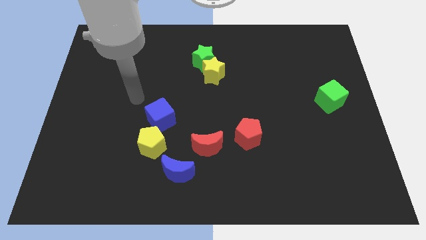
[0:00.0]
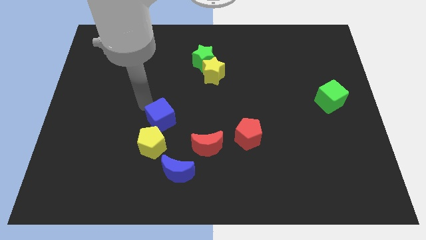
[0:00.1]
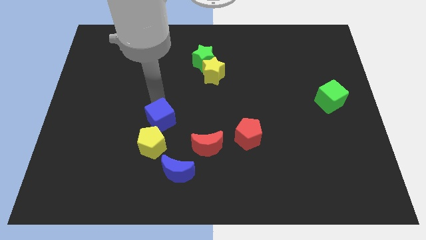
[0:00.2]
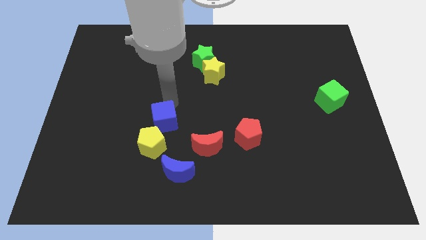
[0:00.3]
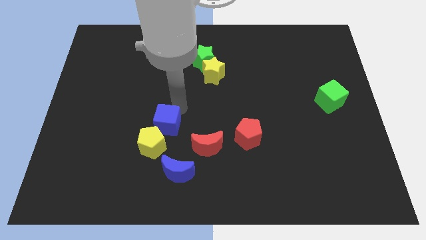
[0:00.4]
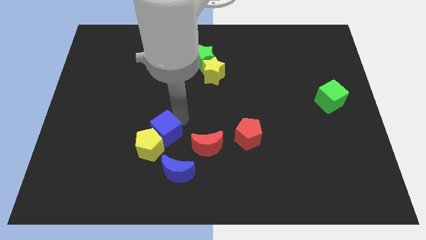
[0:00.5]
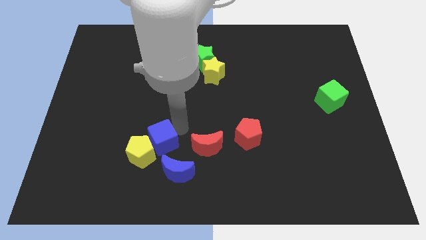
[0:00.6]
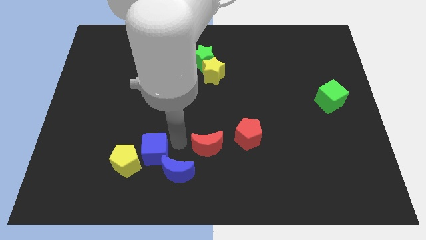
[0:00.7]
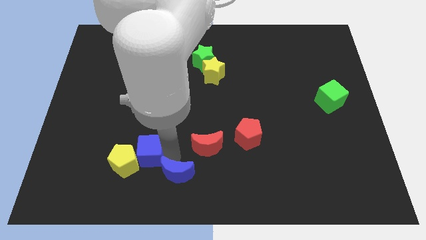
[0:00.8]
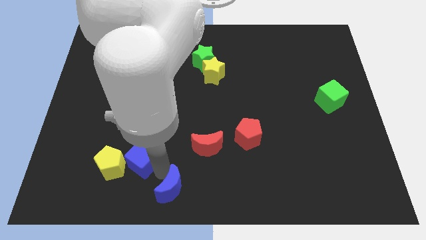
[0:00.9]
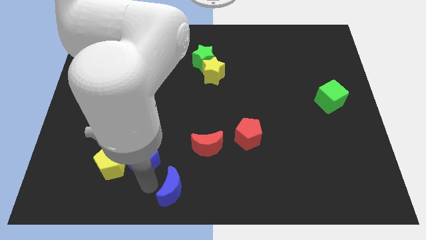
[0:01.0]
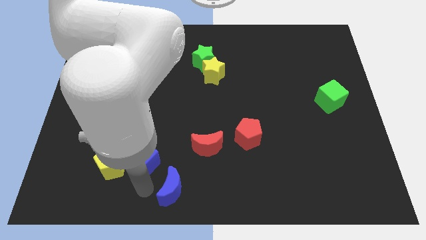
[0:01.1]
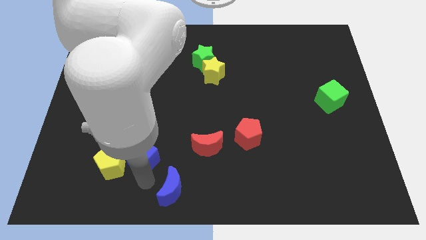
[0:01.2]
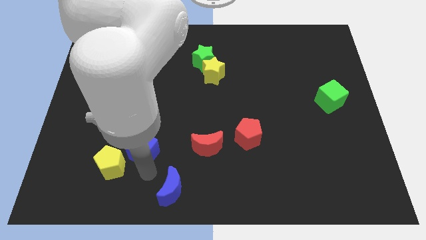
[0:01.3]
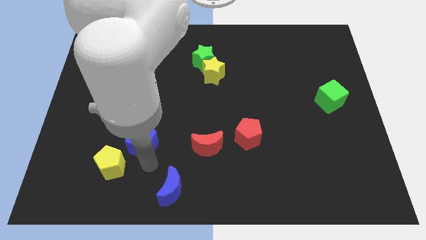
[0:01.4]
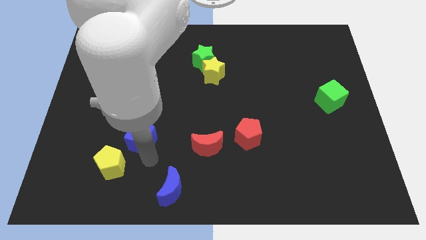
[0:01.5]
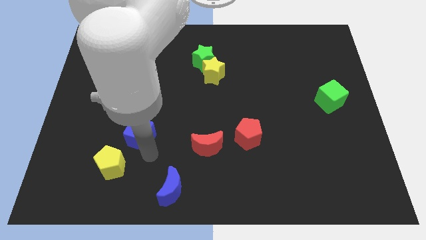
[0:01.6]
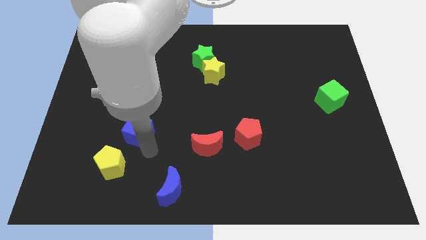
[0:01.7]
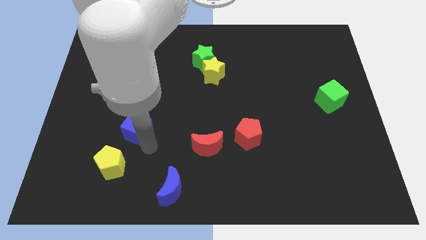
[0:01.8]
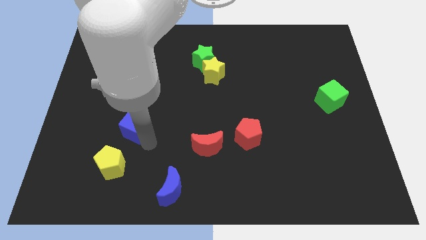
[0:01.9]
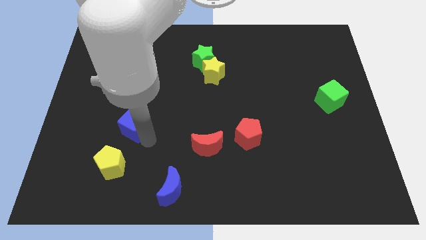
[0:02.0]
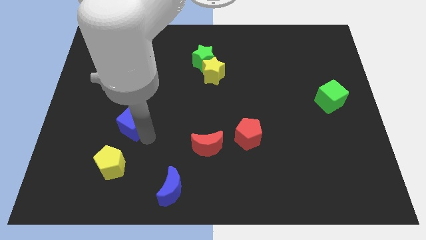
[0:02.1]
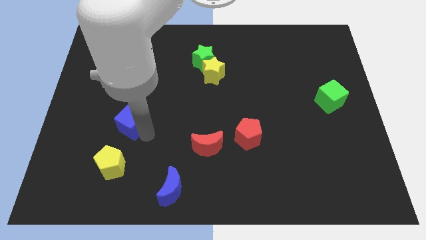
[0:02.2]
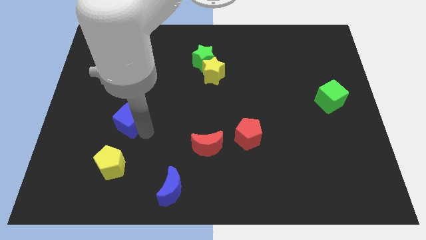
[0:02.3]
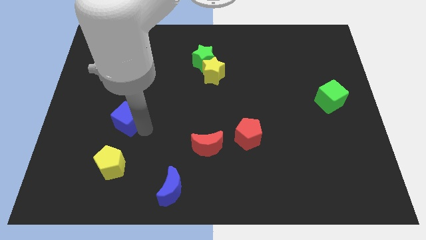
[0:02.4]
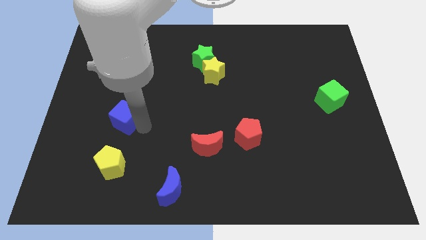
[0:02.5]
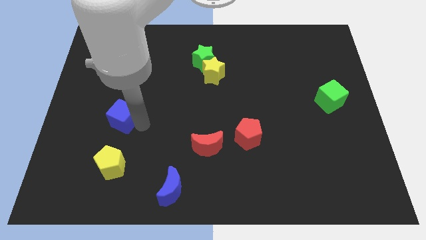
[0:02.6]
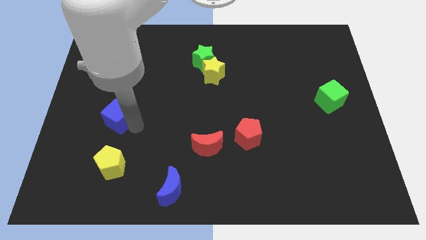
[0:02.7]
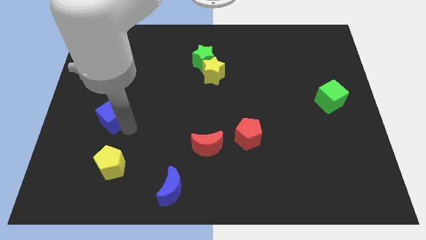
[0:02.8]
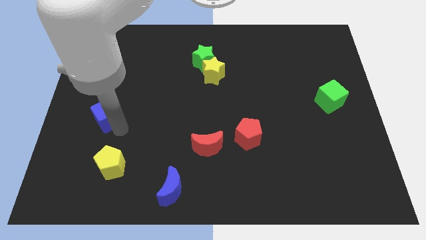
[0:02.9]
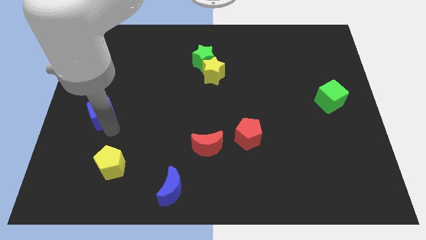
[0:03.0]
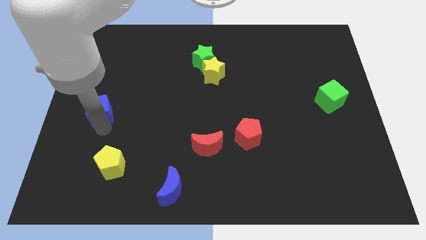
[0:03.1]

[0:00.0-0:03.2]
slightly move the blue cube up and then left

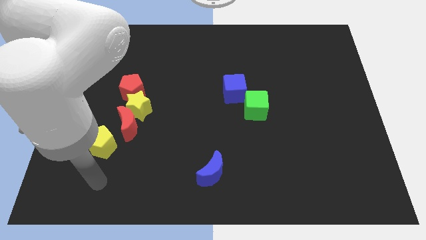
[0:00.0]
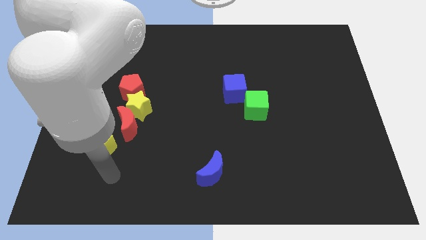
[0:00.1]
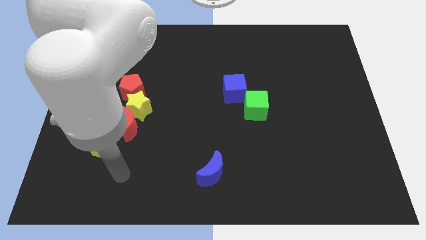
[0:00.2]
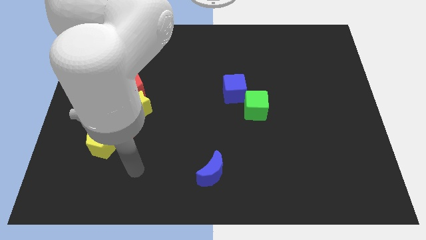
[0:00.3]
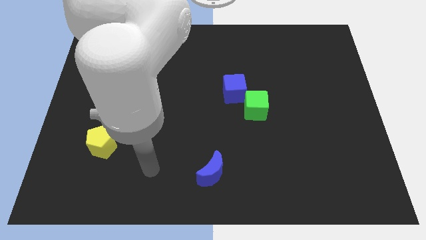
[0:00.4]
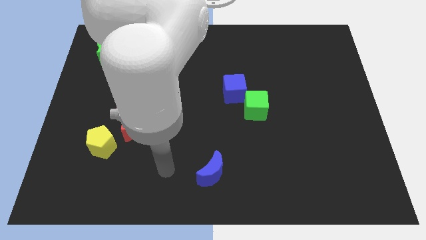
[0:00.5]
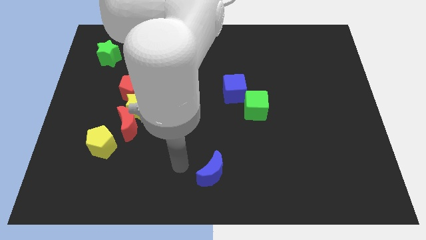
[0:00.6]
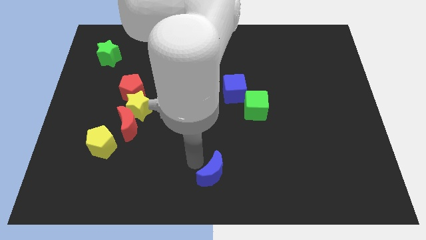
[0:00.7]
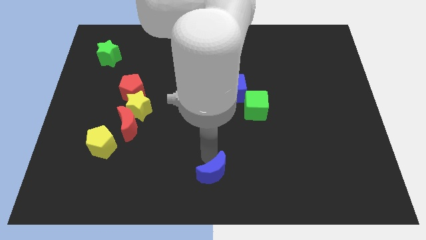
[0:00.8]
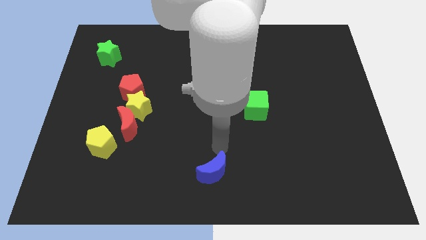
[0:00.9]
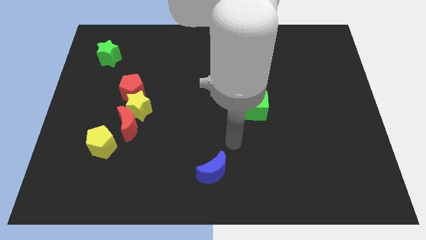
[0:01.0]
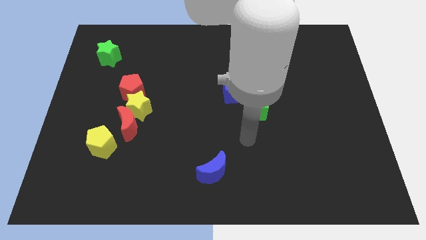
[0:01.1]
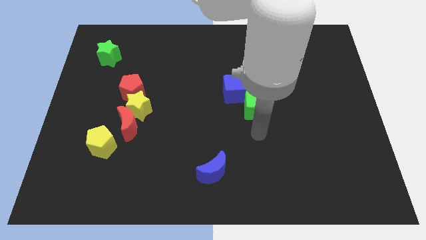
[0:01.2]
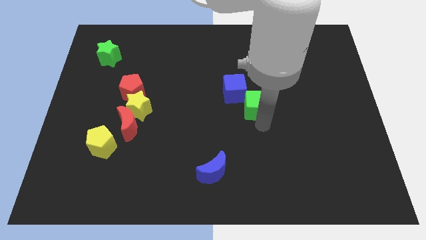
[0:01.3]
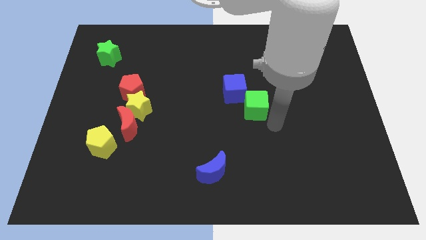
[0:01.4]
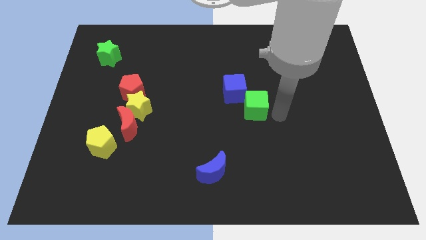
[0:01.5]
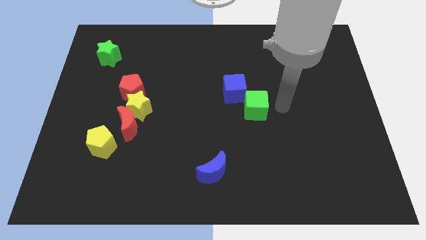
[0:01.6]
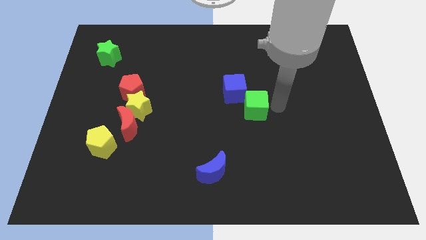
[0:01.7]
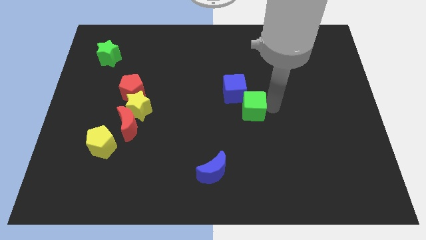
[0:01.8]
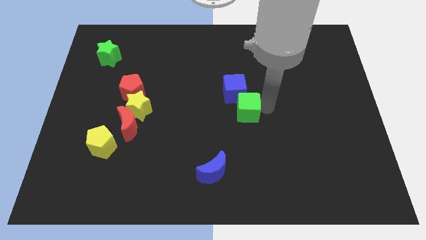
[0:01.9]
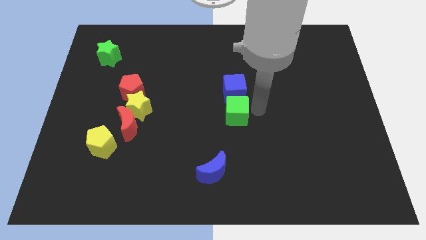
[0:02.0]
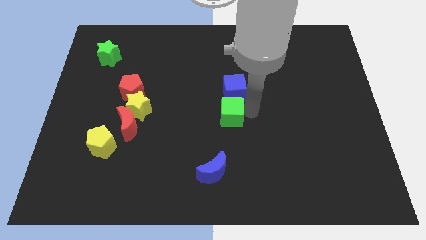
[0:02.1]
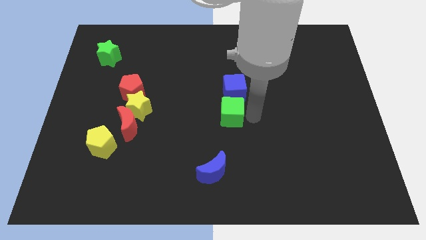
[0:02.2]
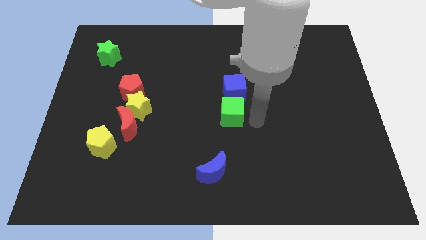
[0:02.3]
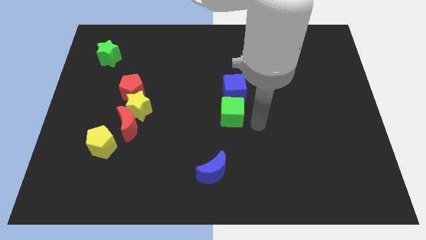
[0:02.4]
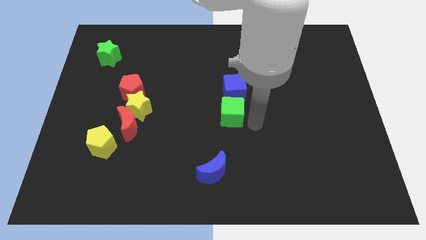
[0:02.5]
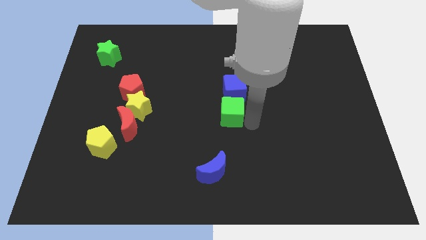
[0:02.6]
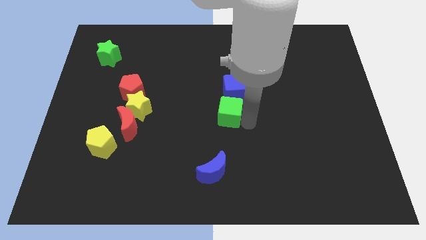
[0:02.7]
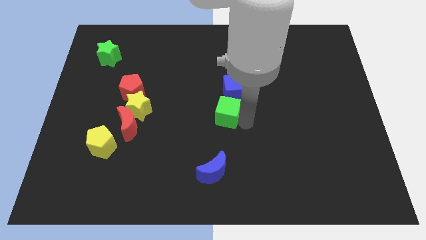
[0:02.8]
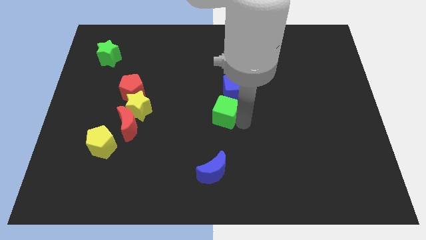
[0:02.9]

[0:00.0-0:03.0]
slightly slide the green cube left

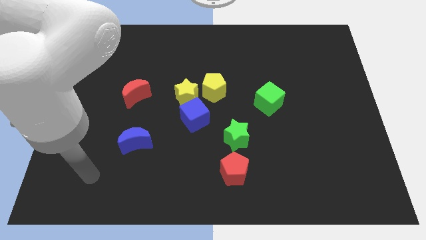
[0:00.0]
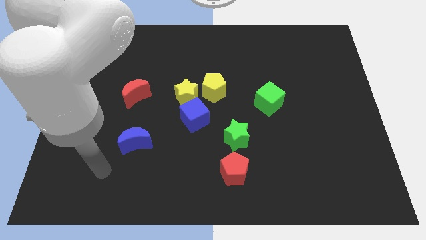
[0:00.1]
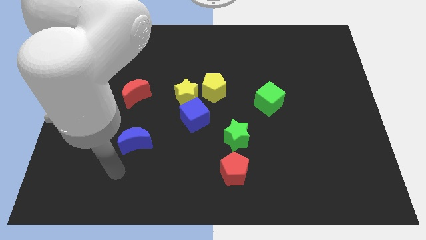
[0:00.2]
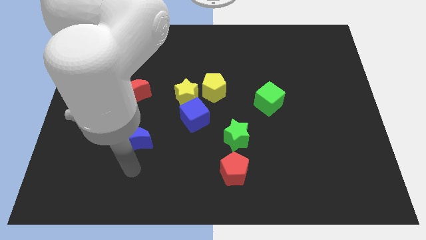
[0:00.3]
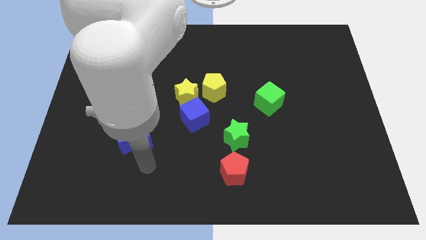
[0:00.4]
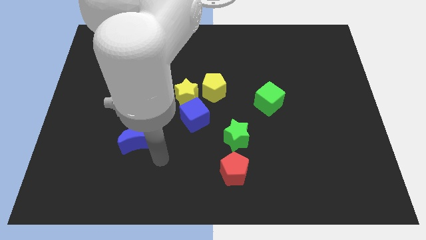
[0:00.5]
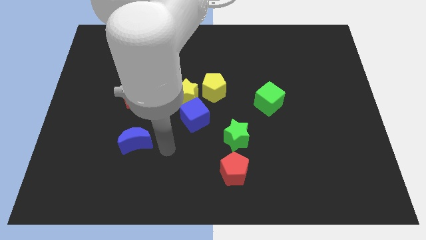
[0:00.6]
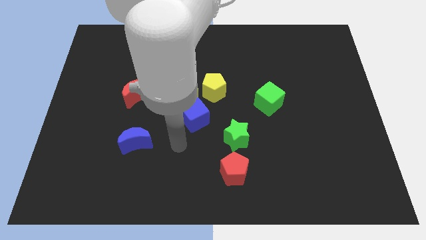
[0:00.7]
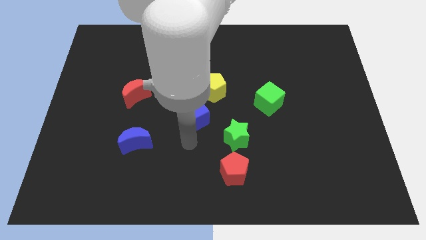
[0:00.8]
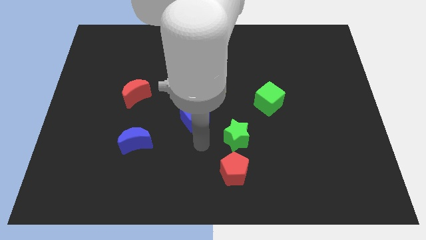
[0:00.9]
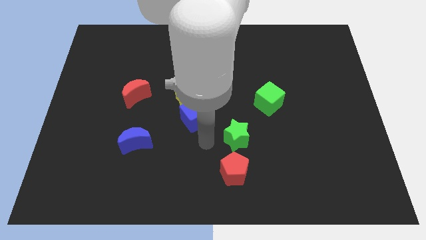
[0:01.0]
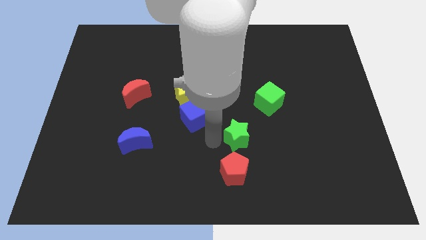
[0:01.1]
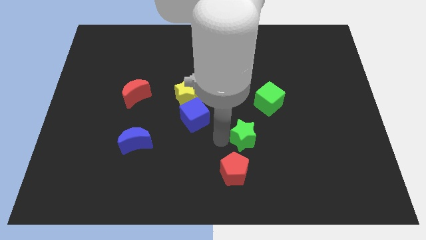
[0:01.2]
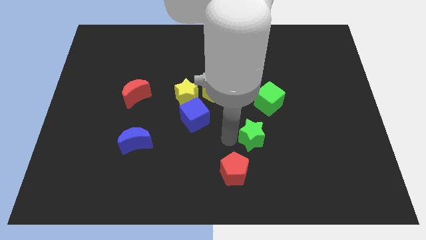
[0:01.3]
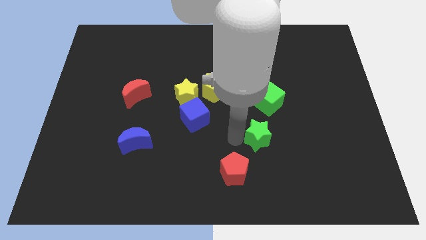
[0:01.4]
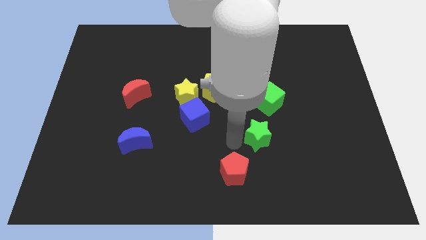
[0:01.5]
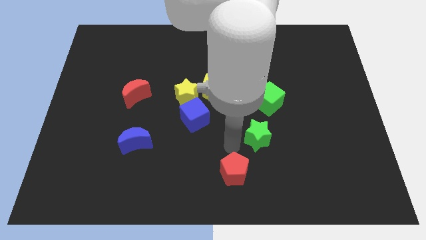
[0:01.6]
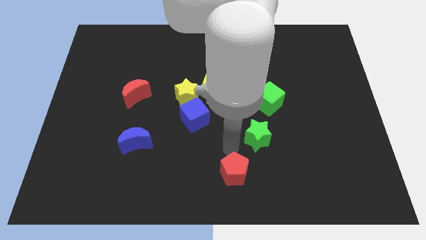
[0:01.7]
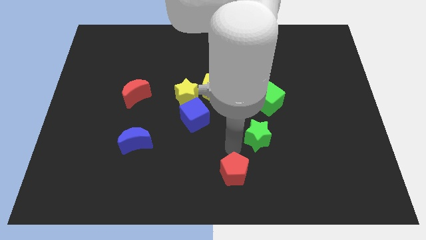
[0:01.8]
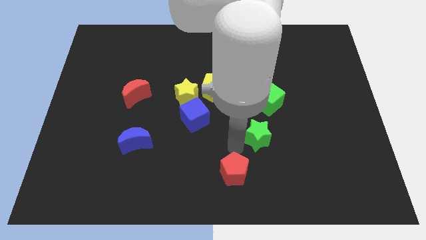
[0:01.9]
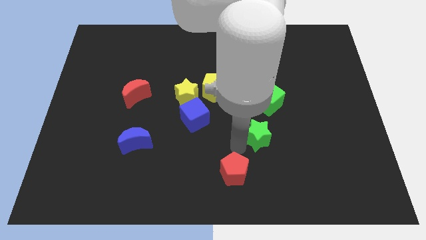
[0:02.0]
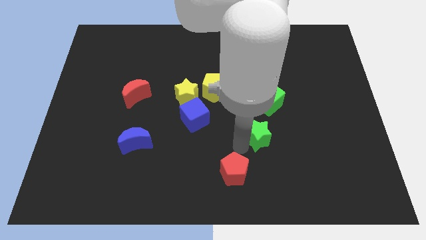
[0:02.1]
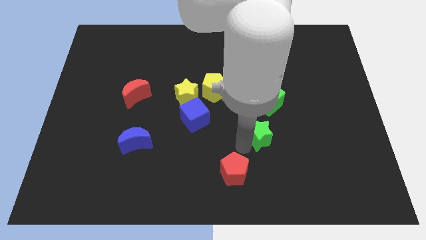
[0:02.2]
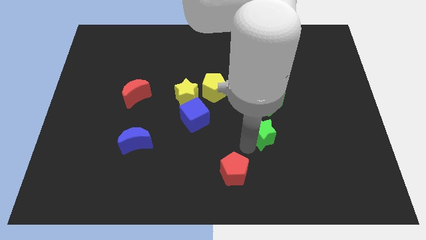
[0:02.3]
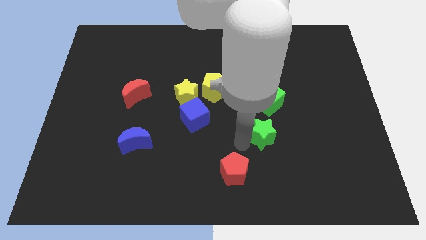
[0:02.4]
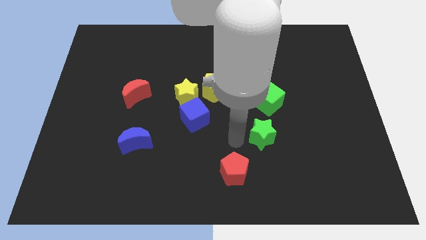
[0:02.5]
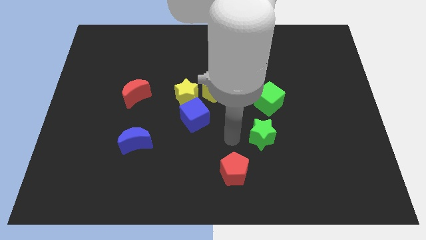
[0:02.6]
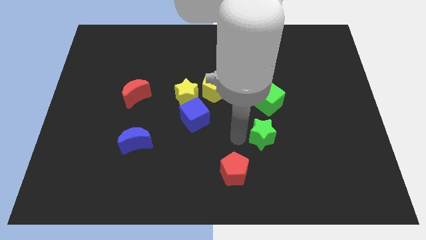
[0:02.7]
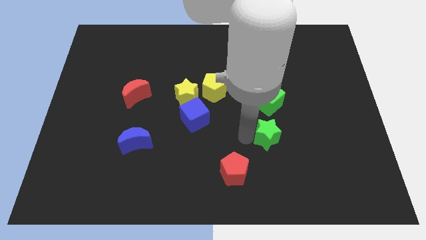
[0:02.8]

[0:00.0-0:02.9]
push the green star a bit to the right
